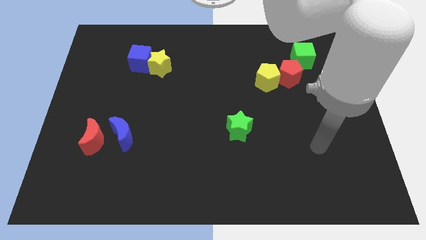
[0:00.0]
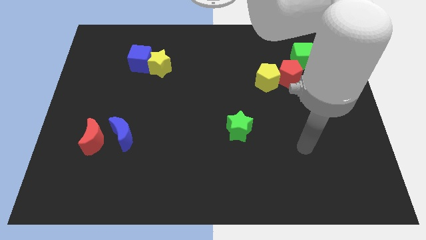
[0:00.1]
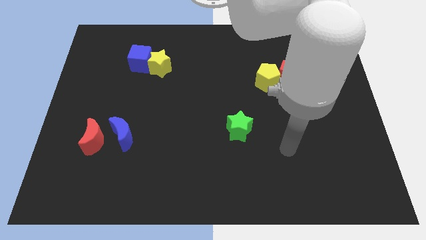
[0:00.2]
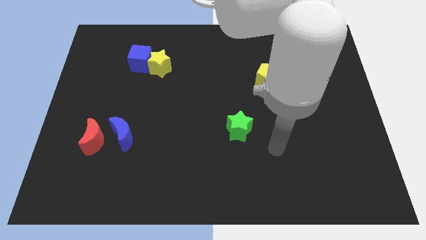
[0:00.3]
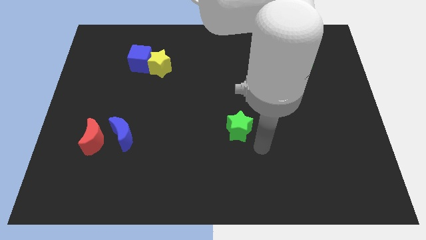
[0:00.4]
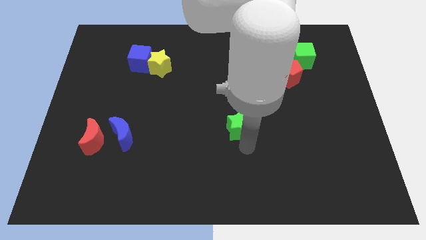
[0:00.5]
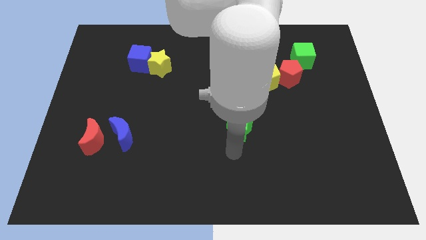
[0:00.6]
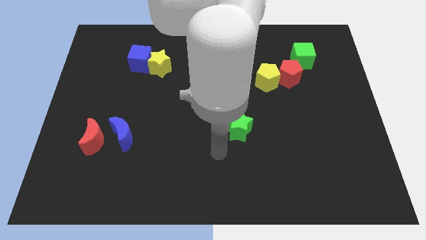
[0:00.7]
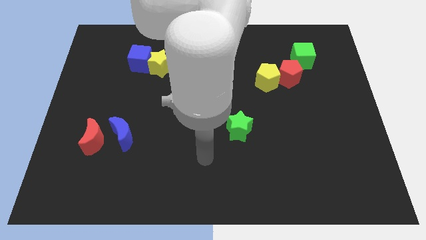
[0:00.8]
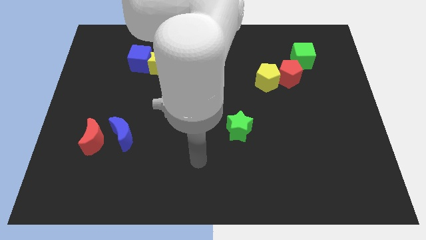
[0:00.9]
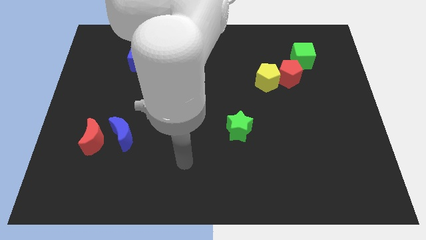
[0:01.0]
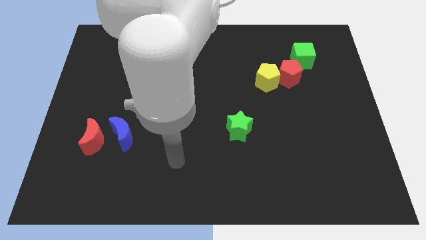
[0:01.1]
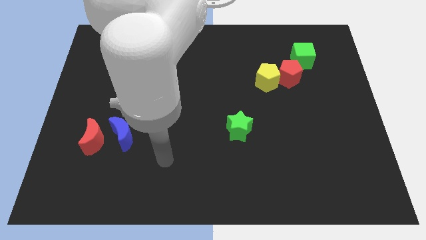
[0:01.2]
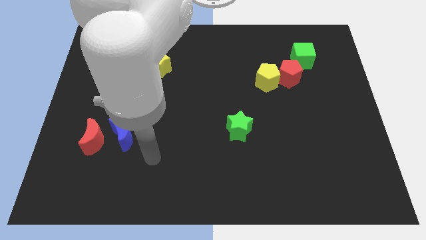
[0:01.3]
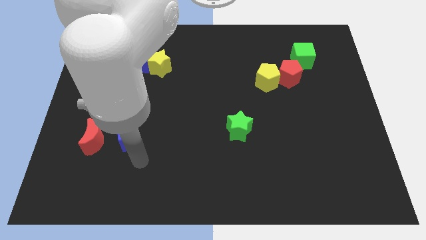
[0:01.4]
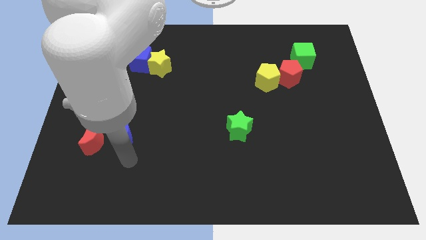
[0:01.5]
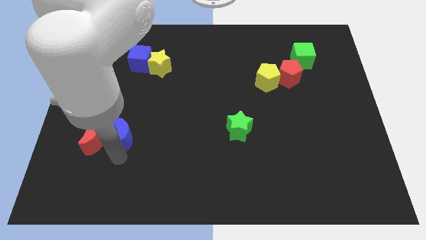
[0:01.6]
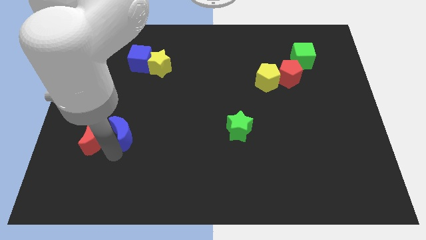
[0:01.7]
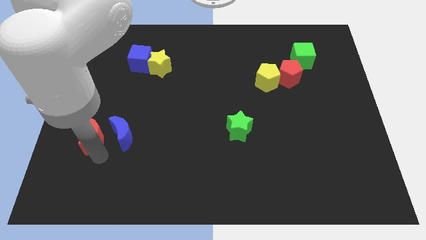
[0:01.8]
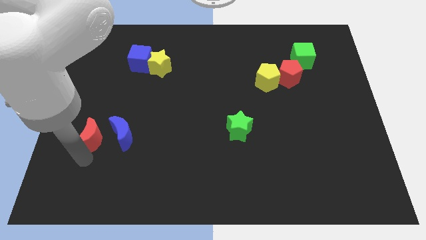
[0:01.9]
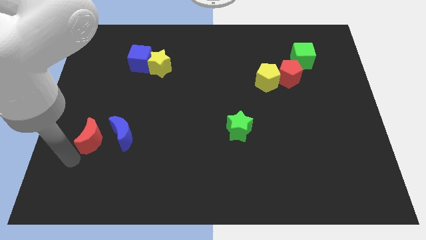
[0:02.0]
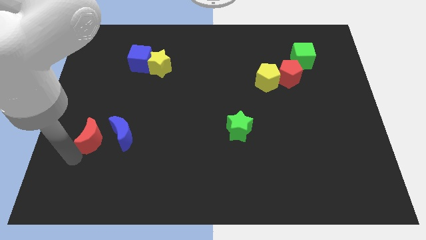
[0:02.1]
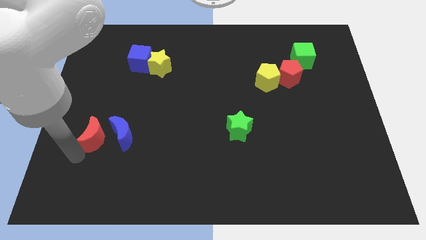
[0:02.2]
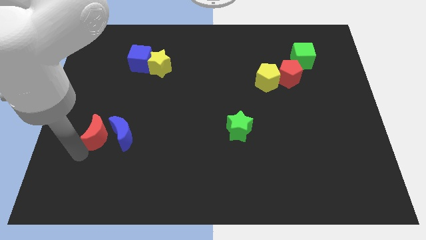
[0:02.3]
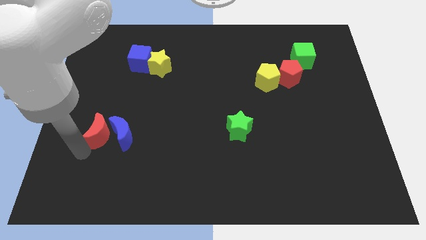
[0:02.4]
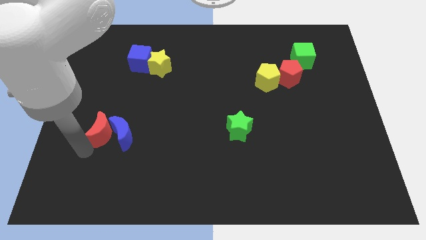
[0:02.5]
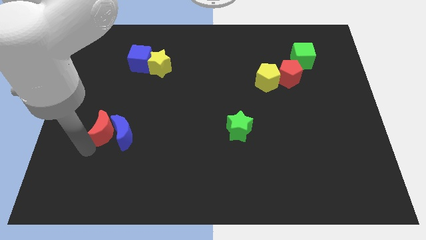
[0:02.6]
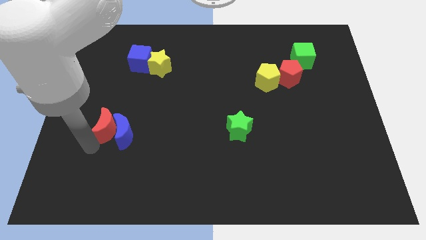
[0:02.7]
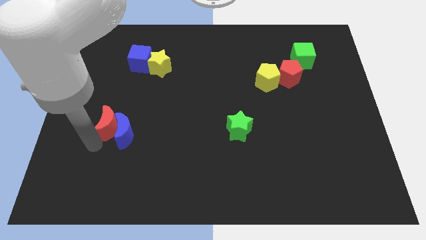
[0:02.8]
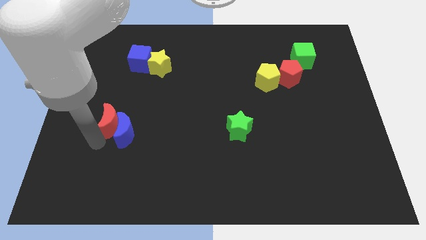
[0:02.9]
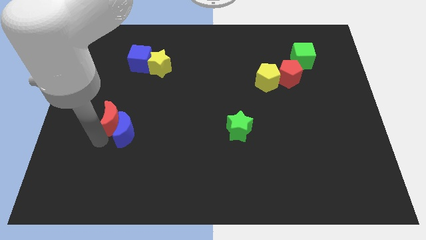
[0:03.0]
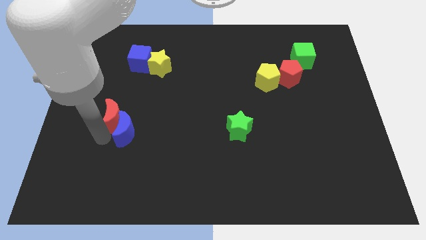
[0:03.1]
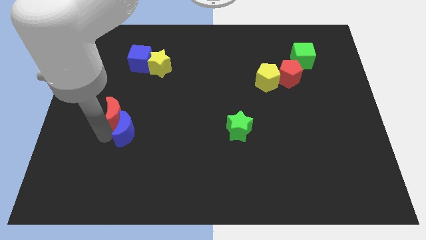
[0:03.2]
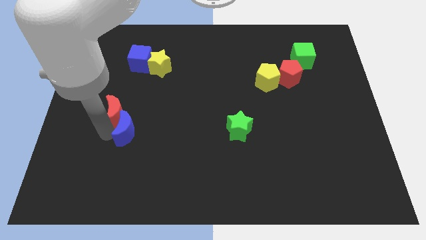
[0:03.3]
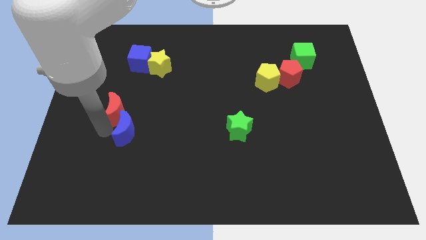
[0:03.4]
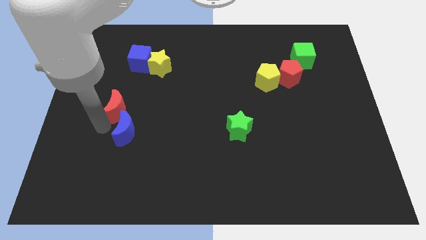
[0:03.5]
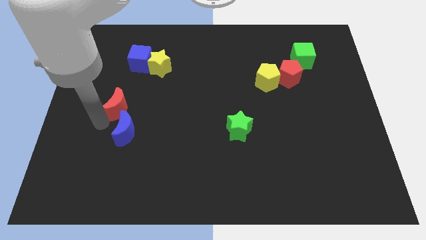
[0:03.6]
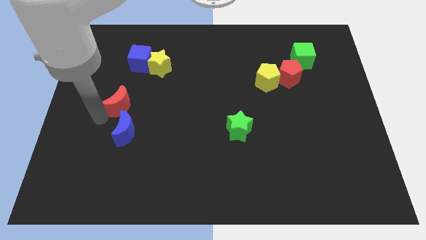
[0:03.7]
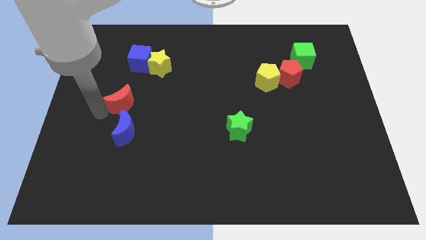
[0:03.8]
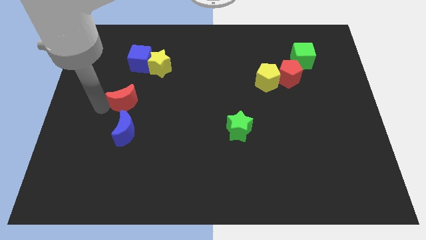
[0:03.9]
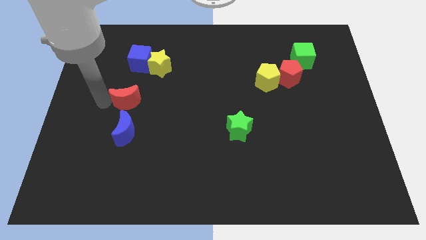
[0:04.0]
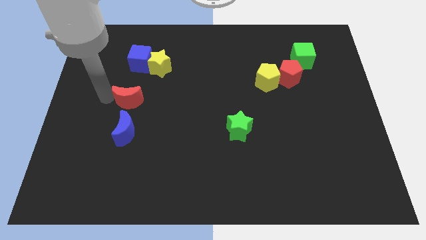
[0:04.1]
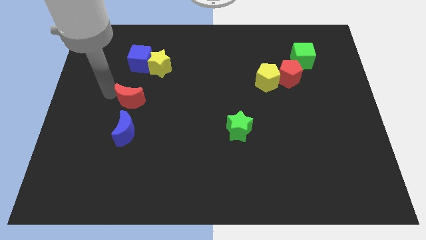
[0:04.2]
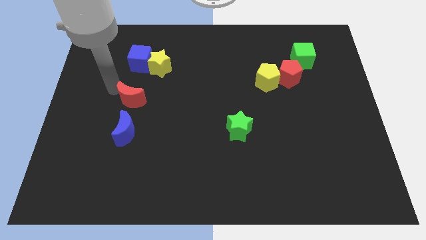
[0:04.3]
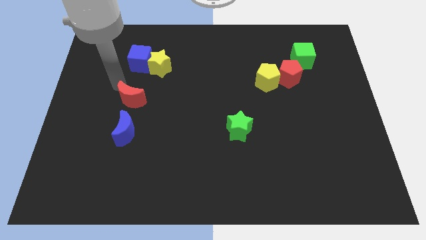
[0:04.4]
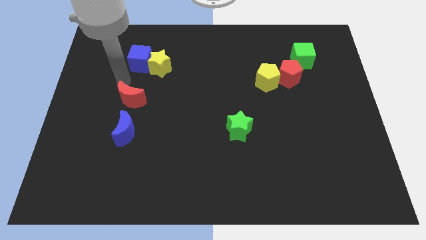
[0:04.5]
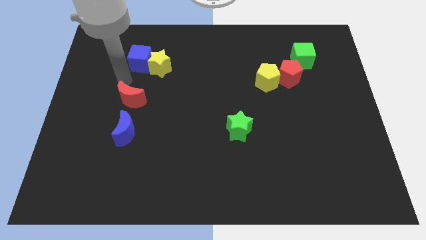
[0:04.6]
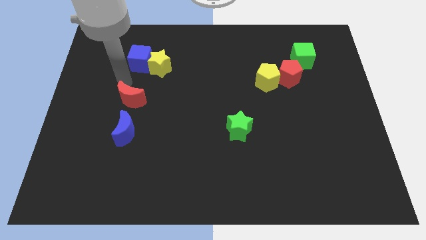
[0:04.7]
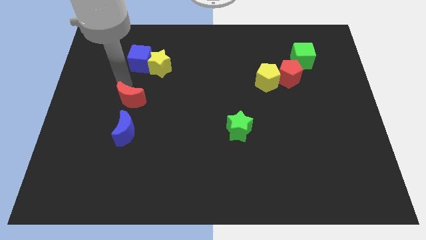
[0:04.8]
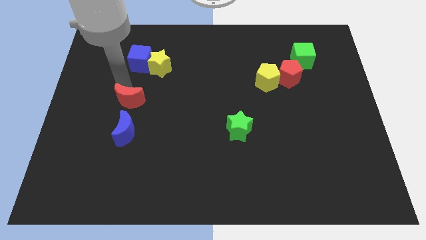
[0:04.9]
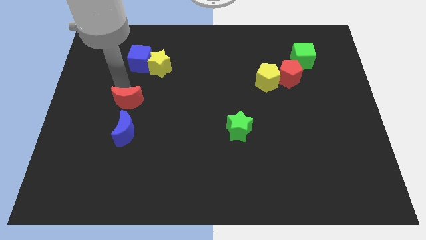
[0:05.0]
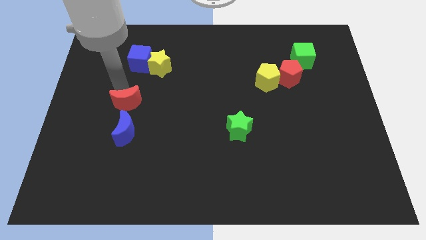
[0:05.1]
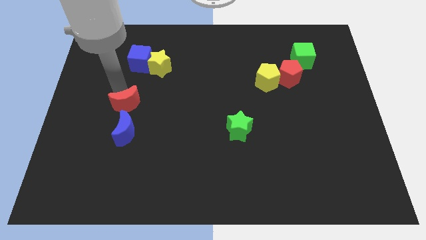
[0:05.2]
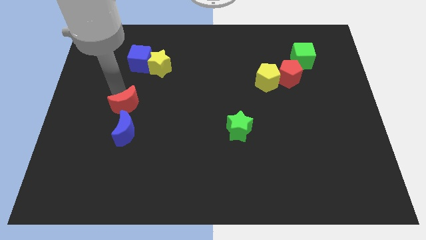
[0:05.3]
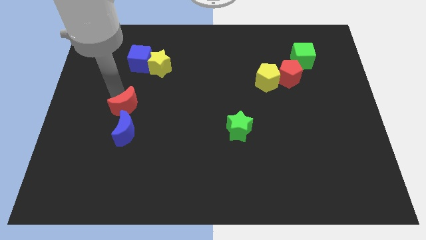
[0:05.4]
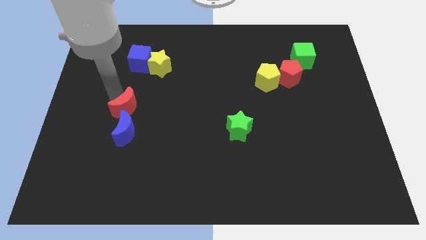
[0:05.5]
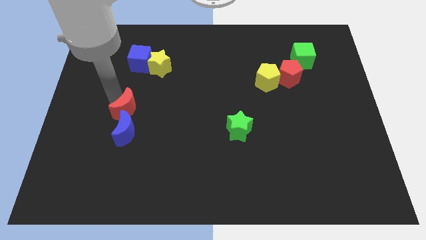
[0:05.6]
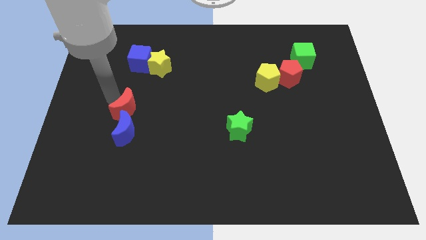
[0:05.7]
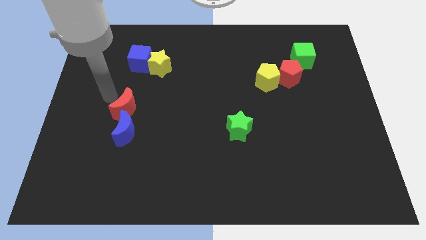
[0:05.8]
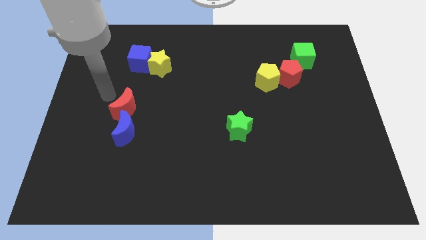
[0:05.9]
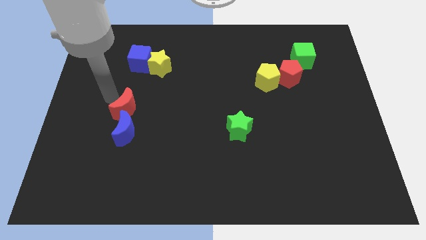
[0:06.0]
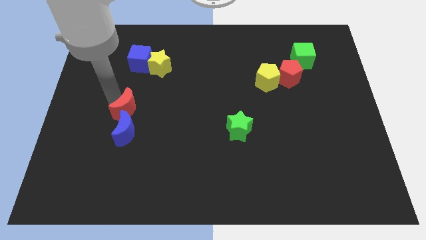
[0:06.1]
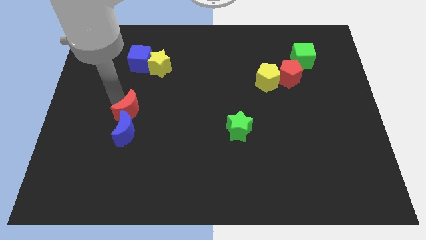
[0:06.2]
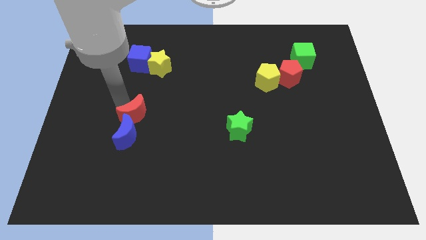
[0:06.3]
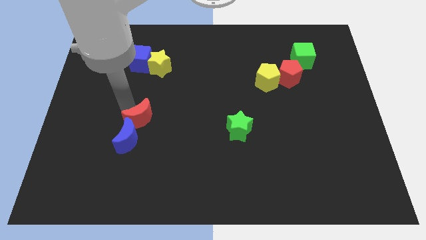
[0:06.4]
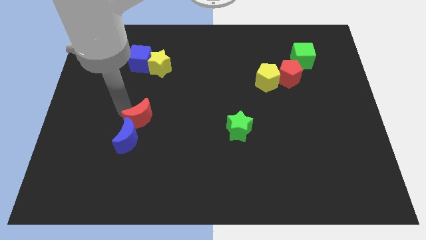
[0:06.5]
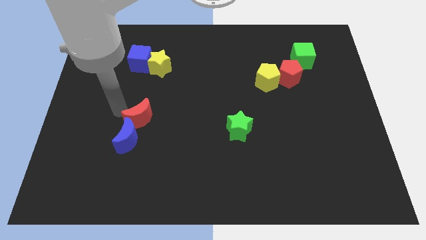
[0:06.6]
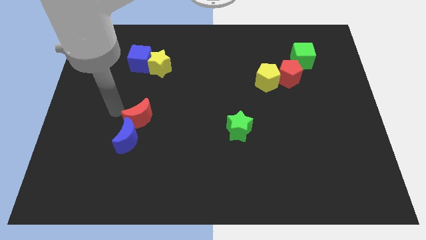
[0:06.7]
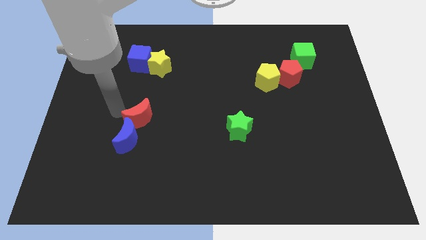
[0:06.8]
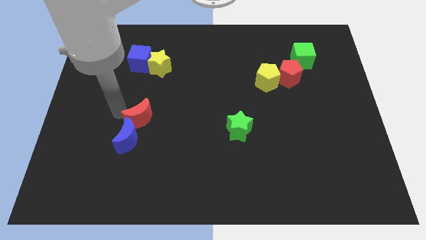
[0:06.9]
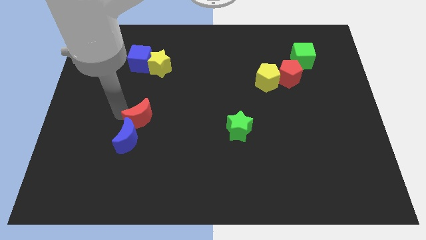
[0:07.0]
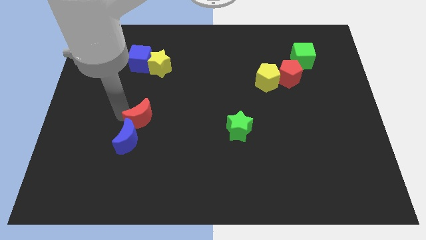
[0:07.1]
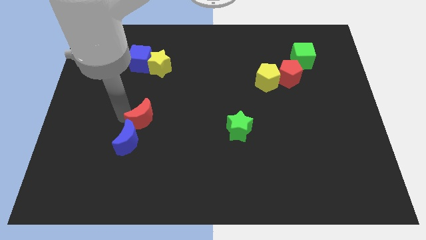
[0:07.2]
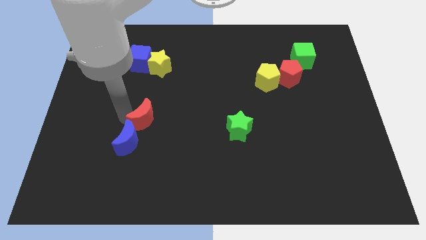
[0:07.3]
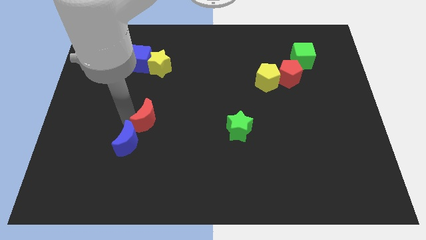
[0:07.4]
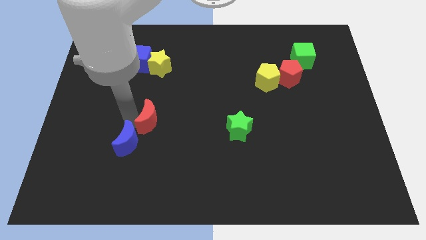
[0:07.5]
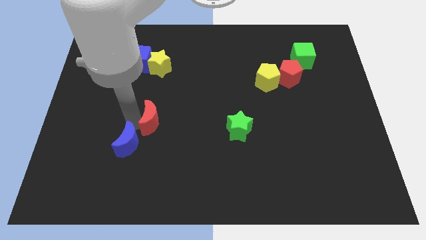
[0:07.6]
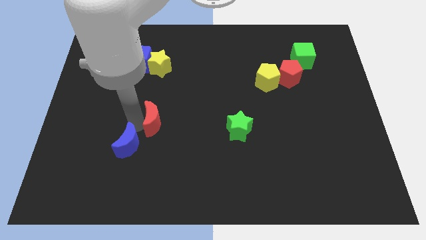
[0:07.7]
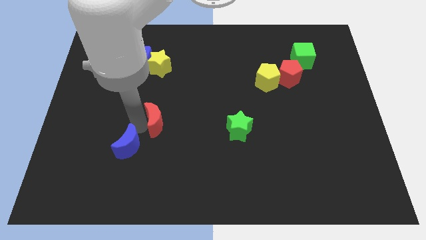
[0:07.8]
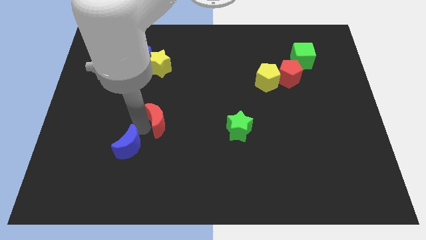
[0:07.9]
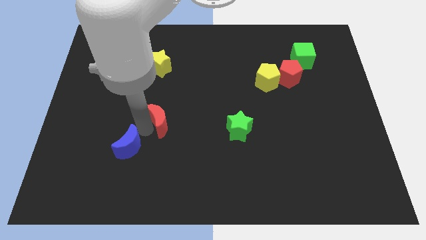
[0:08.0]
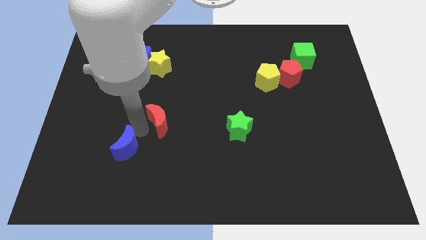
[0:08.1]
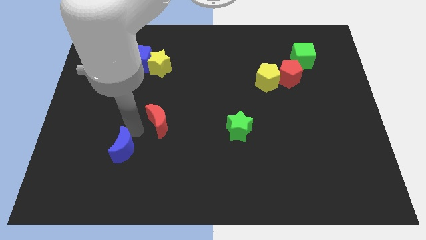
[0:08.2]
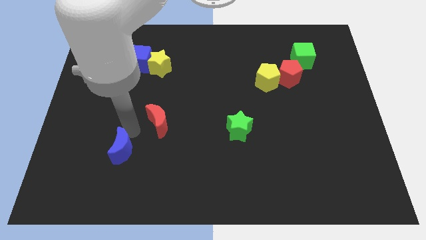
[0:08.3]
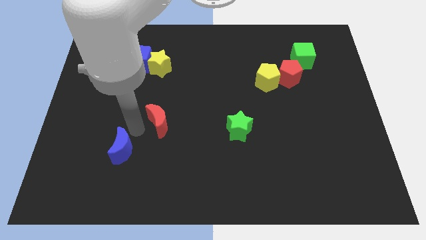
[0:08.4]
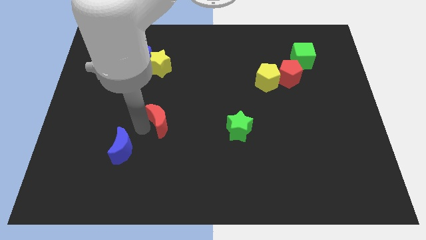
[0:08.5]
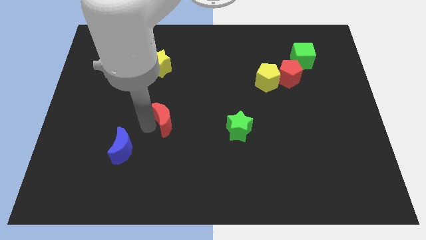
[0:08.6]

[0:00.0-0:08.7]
push the red moon to the center of the board
